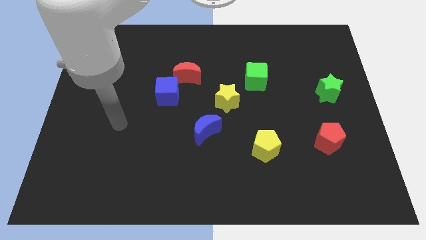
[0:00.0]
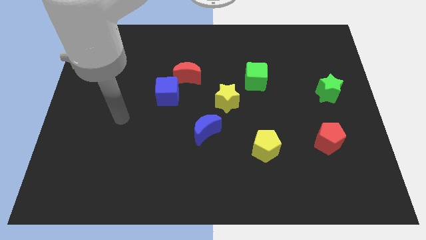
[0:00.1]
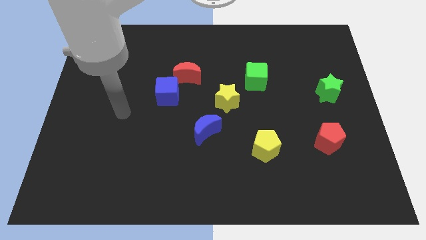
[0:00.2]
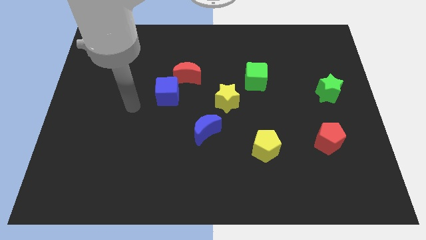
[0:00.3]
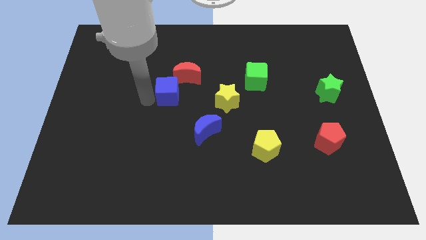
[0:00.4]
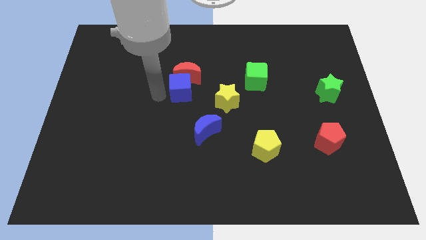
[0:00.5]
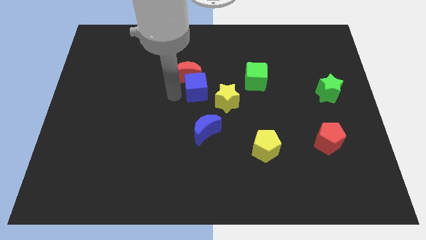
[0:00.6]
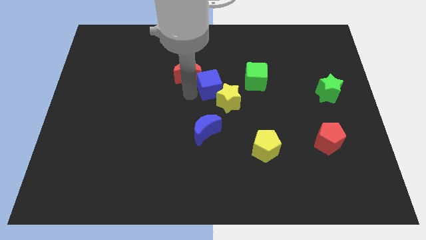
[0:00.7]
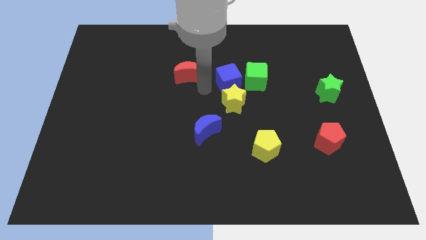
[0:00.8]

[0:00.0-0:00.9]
separate the red moon from the blue cube

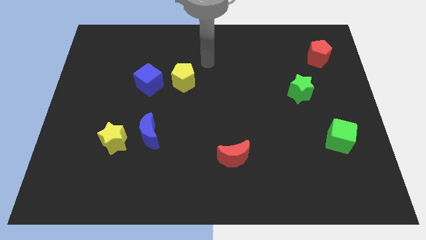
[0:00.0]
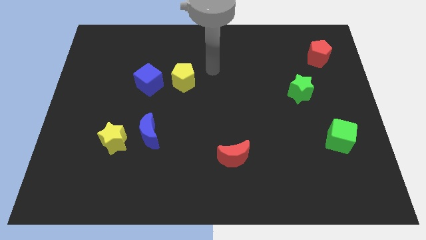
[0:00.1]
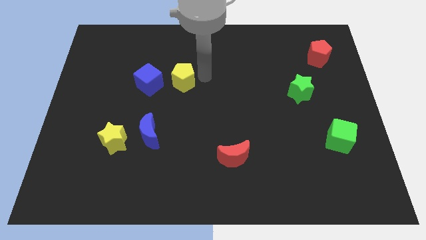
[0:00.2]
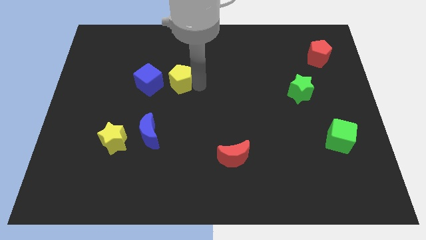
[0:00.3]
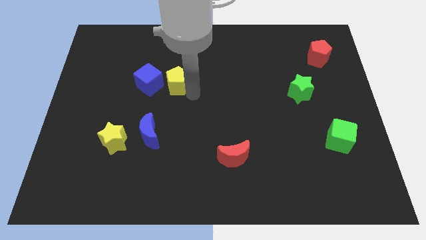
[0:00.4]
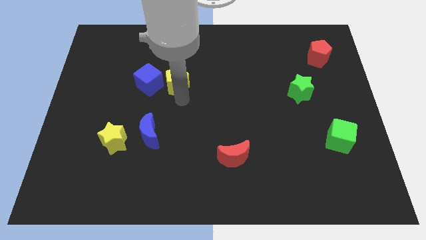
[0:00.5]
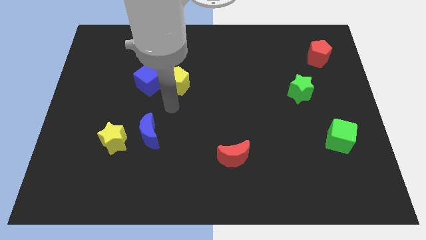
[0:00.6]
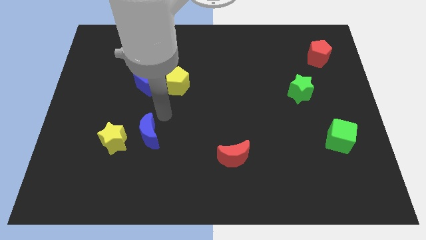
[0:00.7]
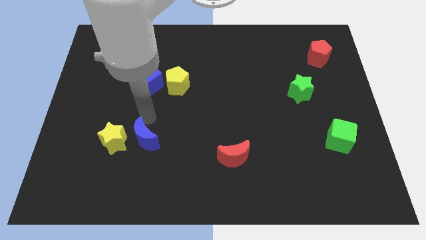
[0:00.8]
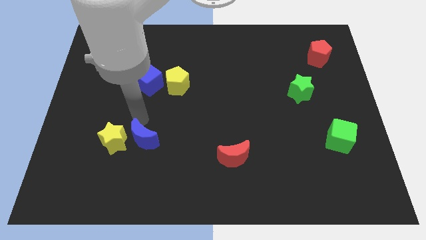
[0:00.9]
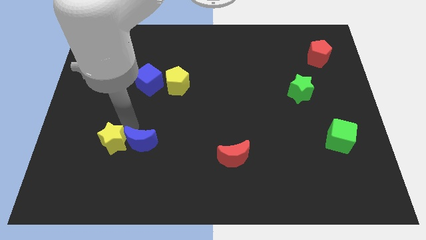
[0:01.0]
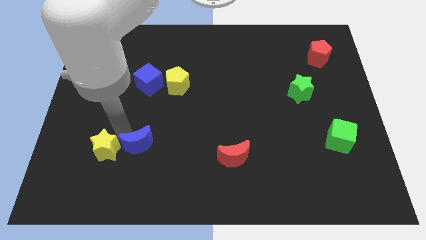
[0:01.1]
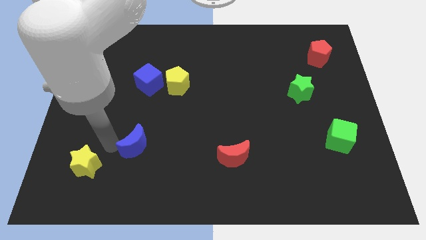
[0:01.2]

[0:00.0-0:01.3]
separate the blue moon from the yellow star

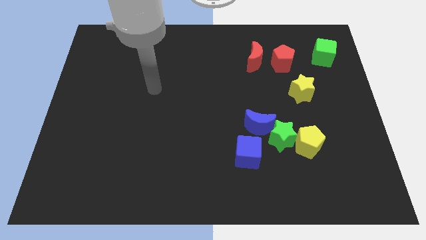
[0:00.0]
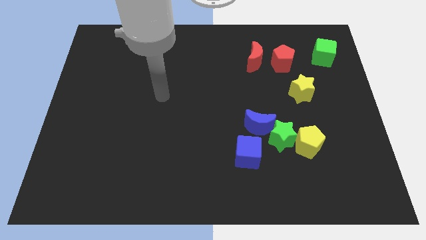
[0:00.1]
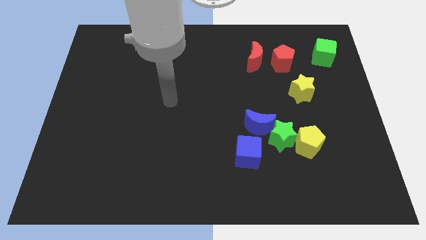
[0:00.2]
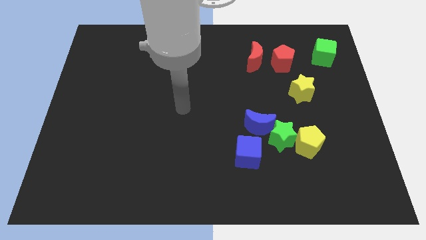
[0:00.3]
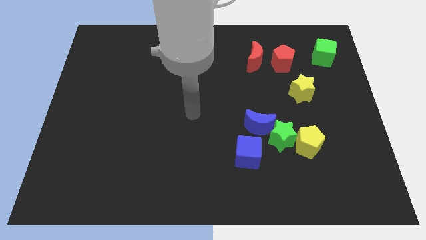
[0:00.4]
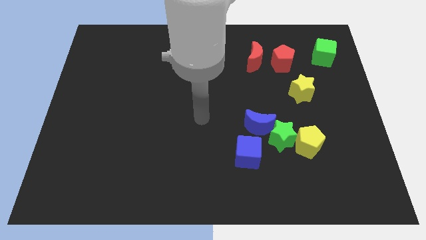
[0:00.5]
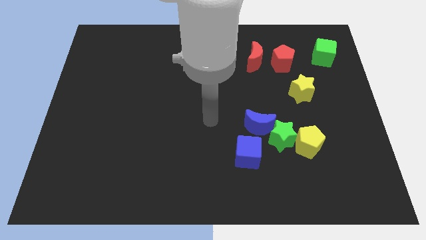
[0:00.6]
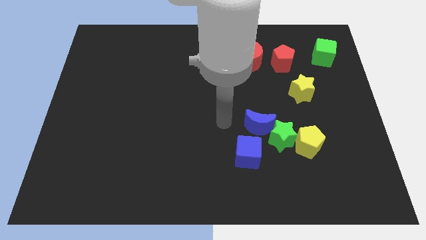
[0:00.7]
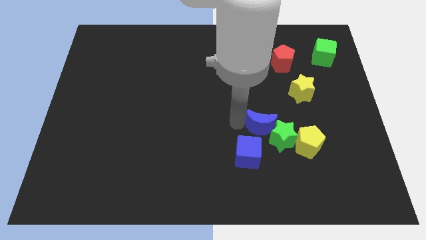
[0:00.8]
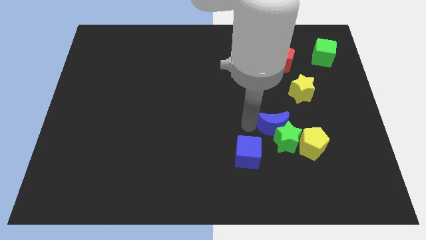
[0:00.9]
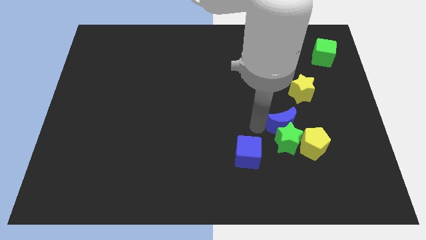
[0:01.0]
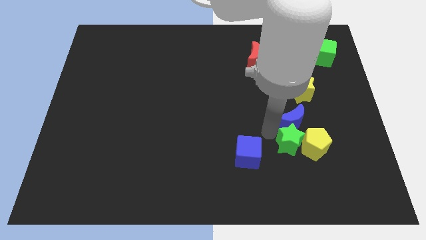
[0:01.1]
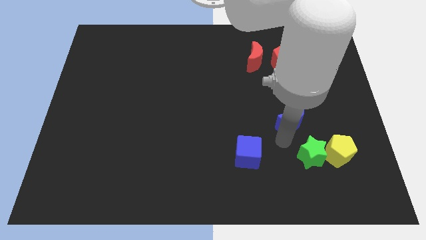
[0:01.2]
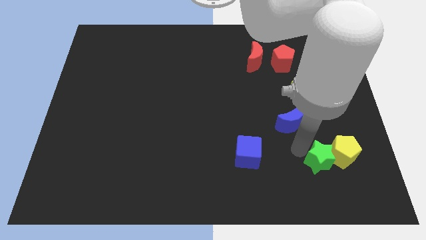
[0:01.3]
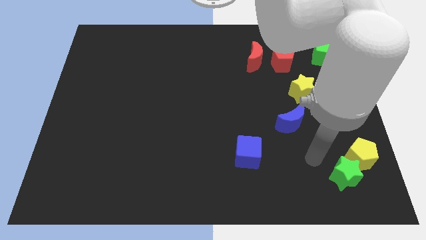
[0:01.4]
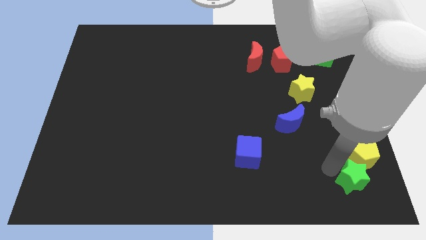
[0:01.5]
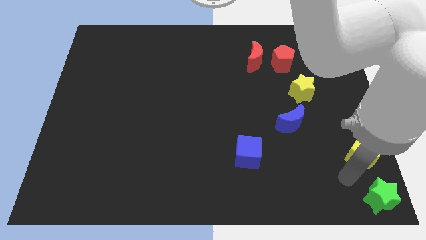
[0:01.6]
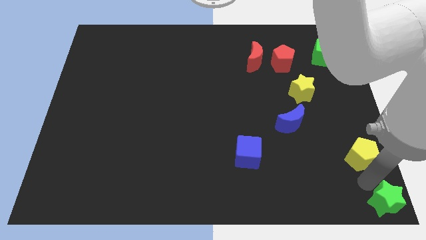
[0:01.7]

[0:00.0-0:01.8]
move the yellow pentagon away from the green star

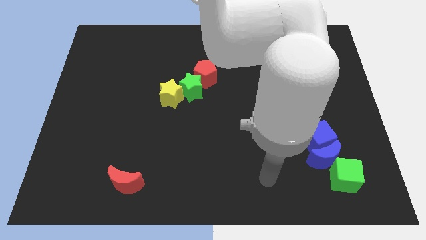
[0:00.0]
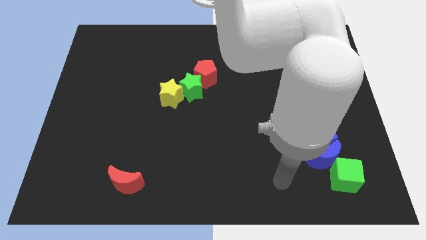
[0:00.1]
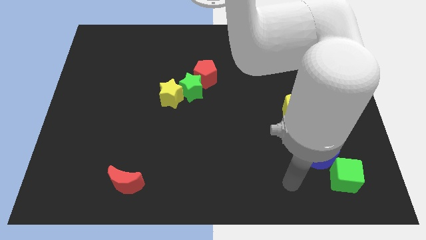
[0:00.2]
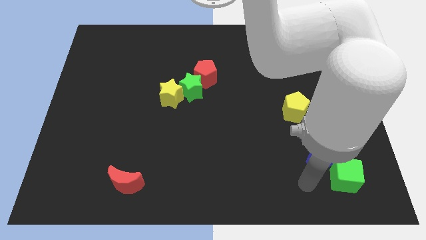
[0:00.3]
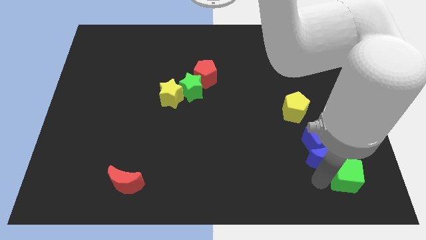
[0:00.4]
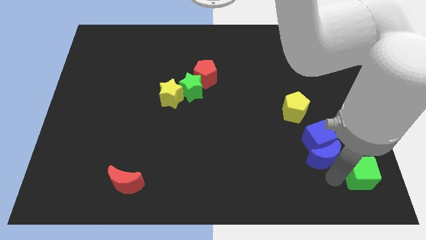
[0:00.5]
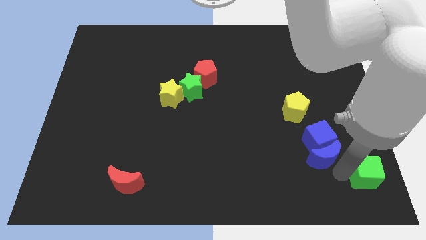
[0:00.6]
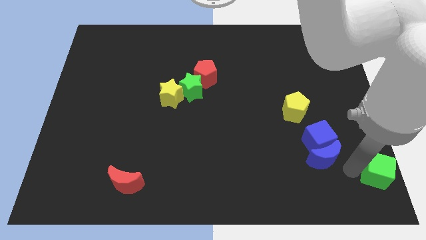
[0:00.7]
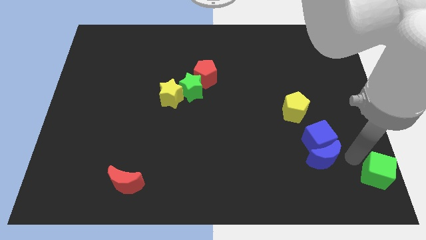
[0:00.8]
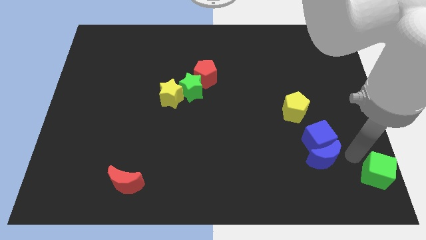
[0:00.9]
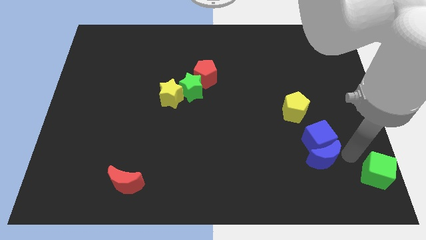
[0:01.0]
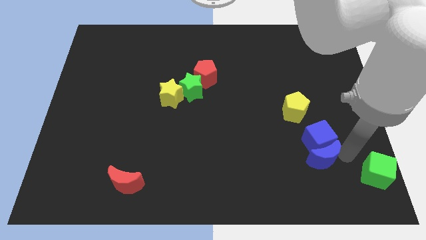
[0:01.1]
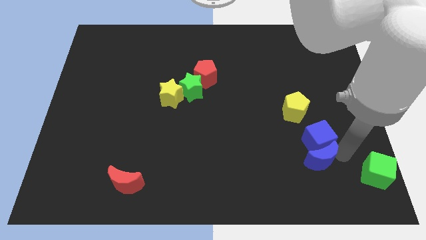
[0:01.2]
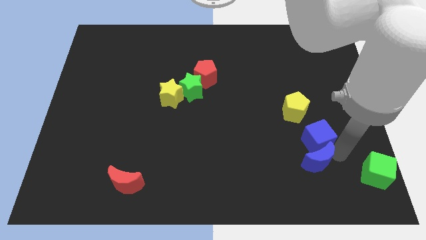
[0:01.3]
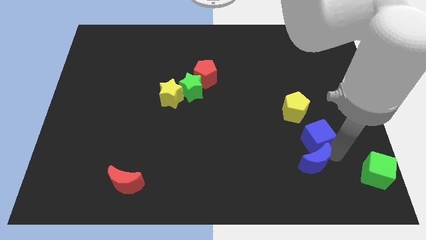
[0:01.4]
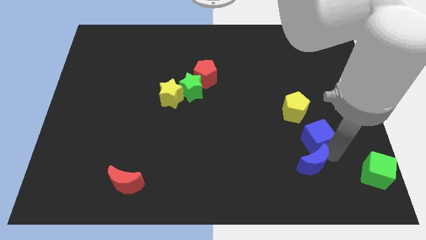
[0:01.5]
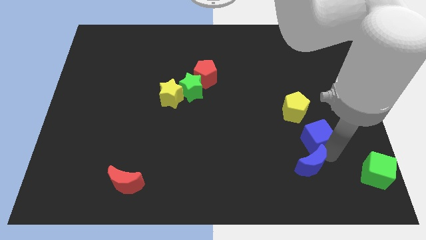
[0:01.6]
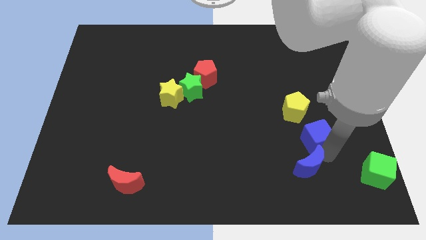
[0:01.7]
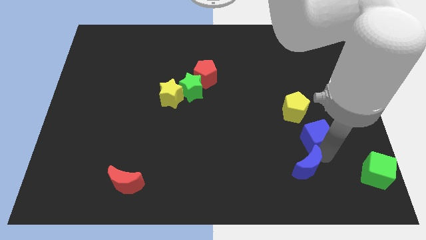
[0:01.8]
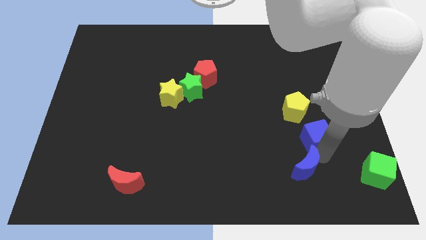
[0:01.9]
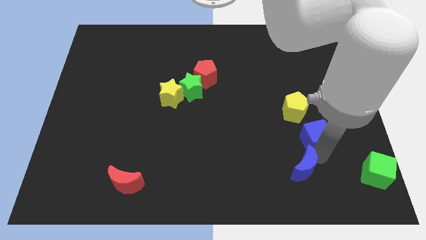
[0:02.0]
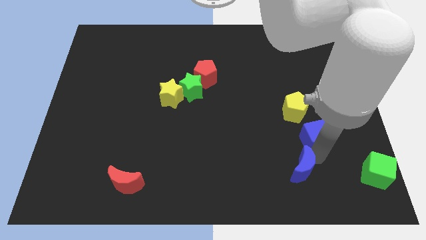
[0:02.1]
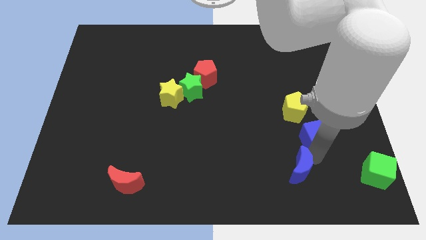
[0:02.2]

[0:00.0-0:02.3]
move the blue moon away from the blue cube and green cube

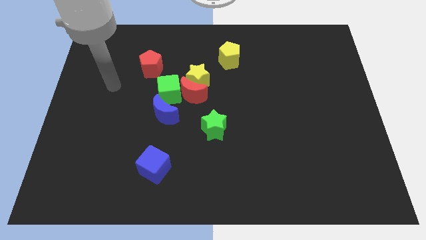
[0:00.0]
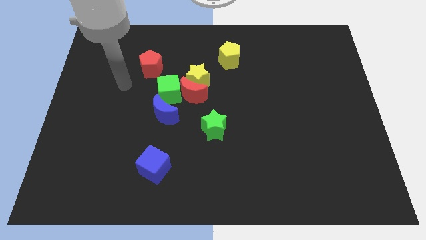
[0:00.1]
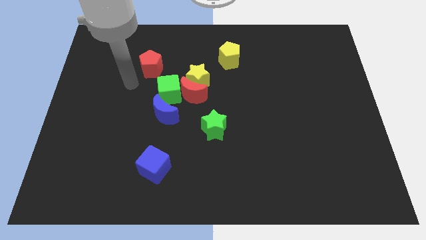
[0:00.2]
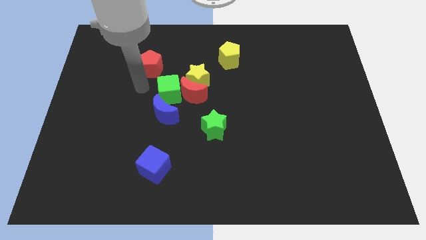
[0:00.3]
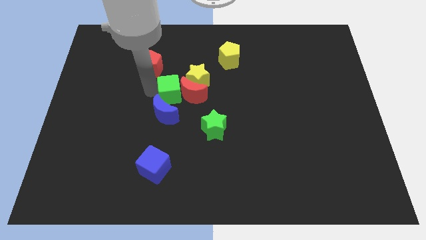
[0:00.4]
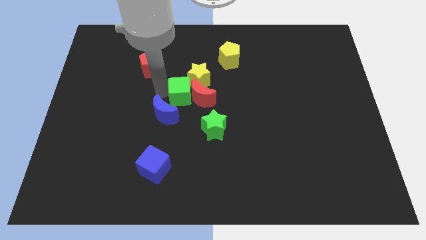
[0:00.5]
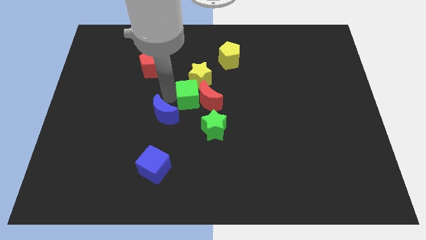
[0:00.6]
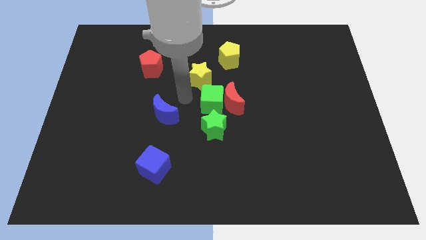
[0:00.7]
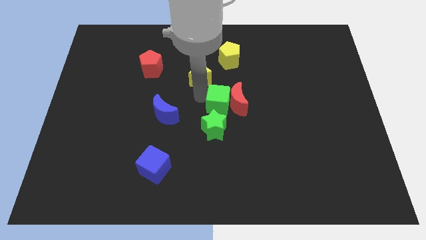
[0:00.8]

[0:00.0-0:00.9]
pull the yellow star apart from the red moon and green cube

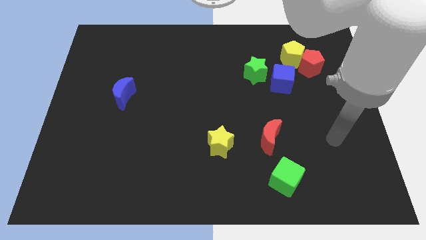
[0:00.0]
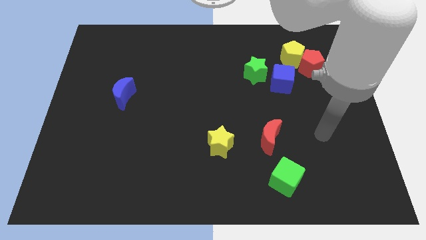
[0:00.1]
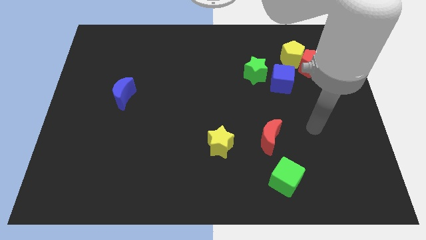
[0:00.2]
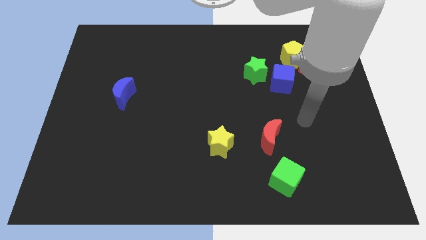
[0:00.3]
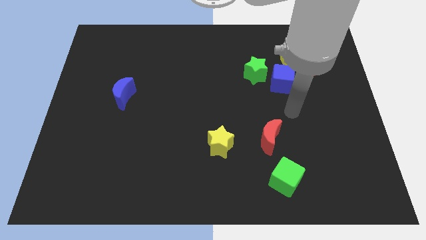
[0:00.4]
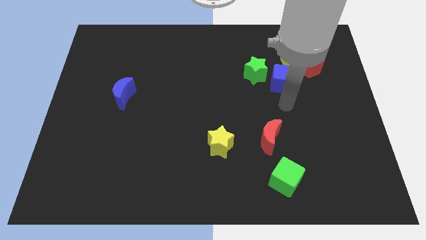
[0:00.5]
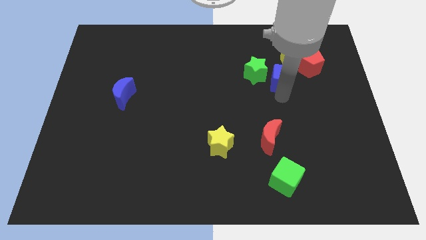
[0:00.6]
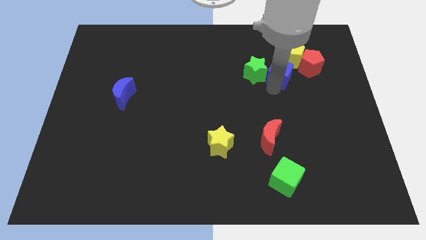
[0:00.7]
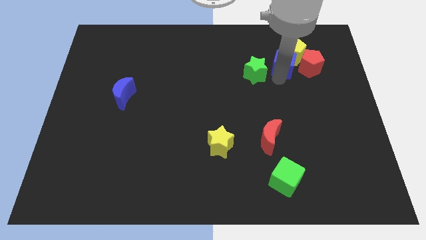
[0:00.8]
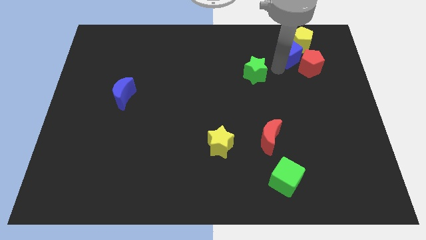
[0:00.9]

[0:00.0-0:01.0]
move the green star away from the blue cube

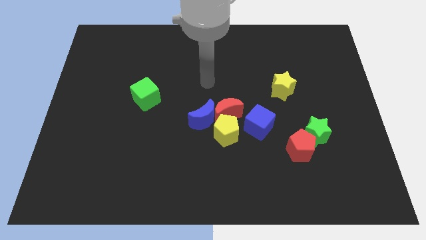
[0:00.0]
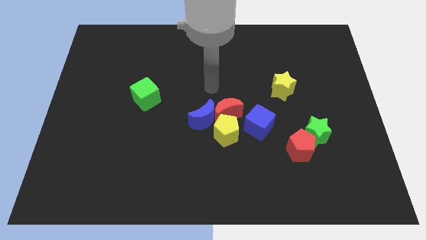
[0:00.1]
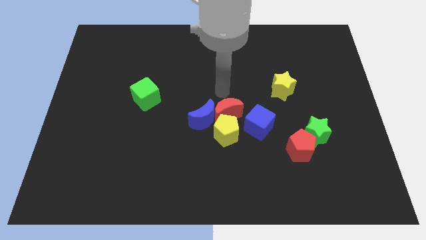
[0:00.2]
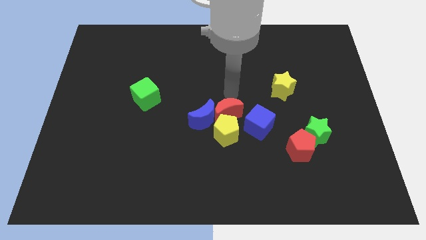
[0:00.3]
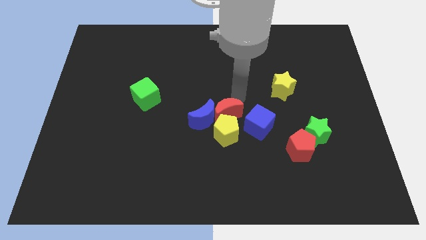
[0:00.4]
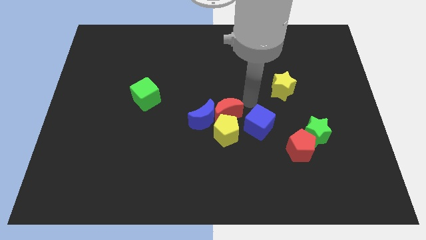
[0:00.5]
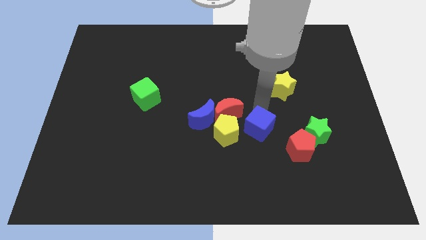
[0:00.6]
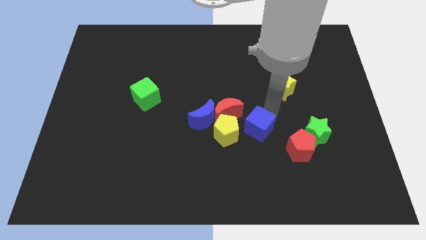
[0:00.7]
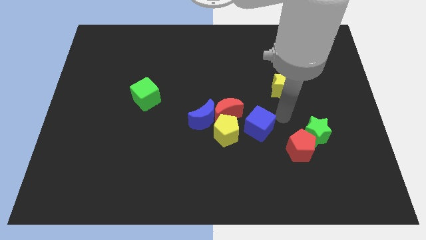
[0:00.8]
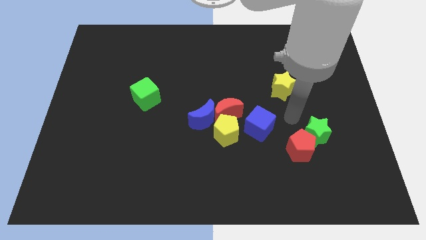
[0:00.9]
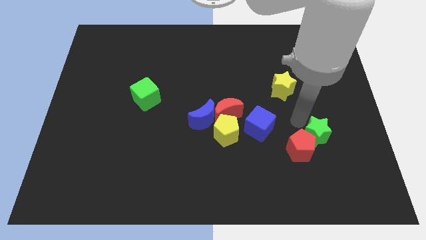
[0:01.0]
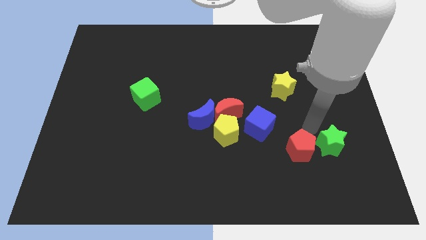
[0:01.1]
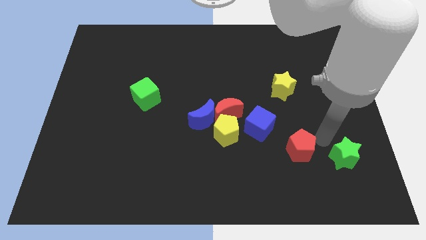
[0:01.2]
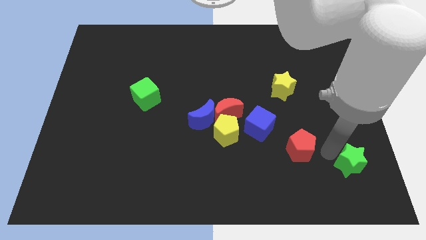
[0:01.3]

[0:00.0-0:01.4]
pull the red pentagon apart from the green star
